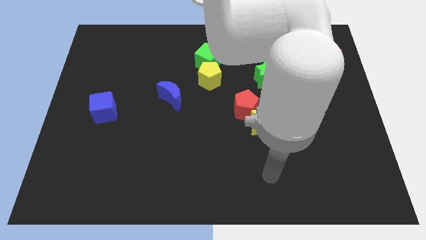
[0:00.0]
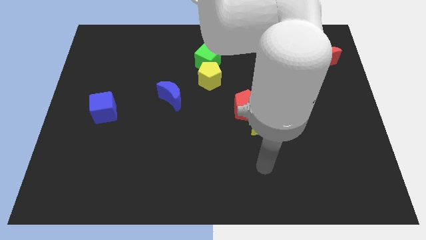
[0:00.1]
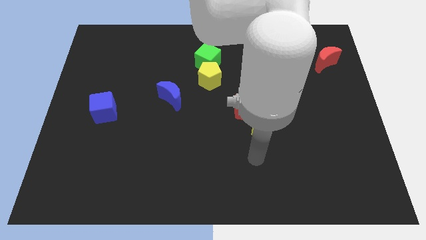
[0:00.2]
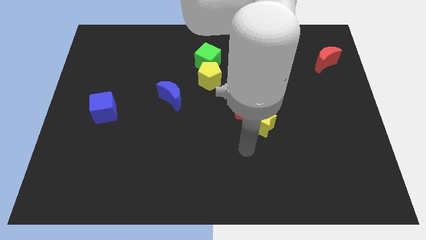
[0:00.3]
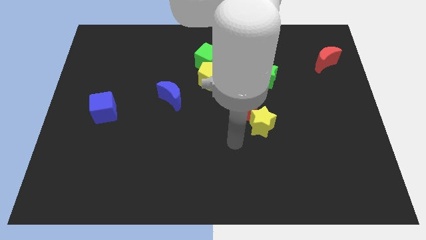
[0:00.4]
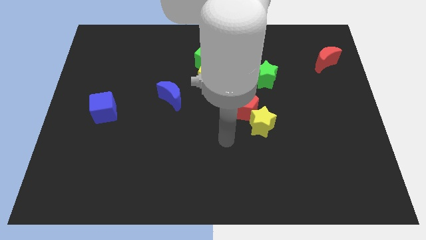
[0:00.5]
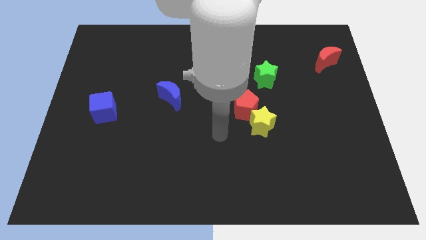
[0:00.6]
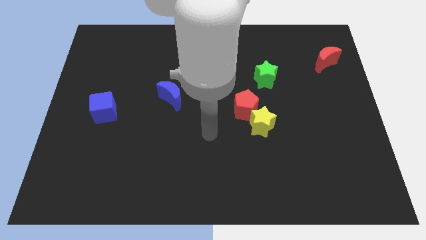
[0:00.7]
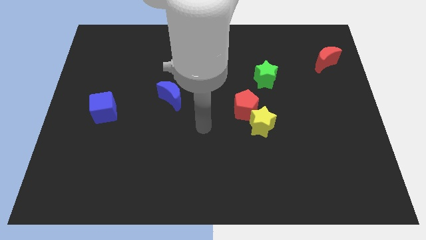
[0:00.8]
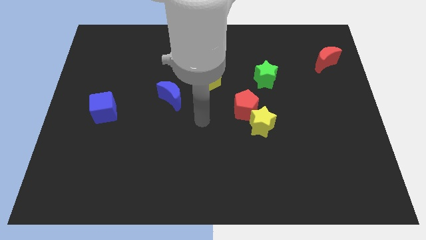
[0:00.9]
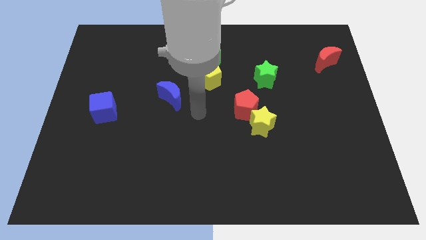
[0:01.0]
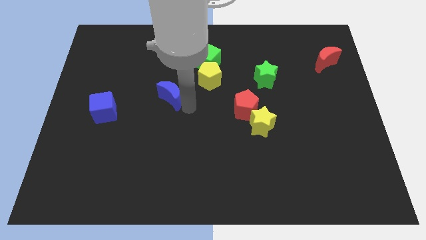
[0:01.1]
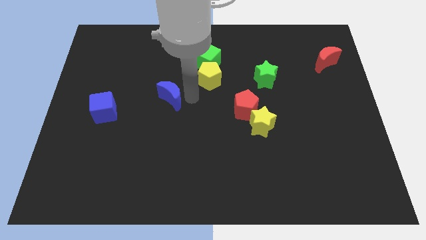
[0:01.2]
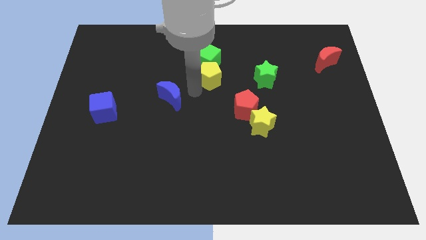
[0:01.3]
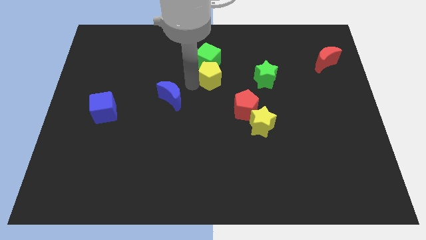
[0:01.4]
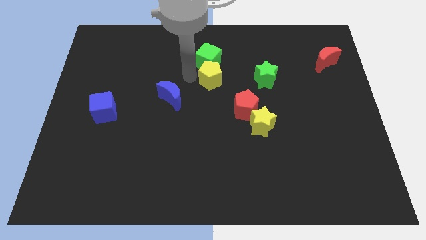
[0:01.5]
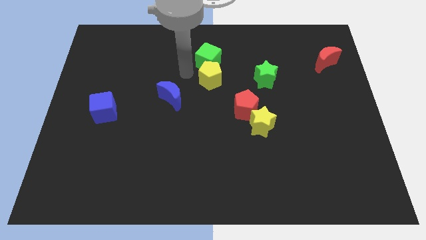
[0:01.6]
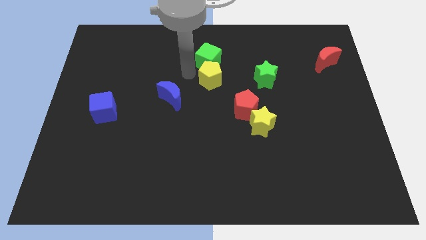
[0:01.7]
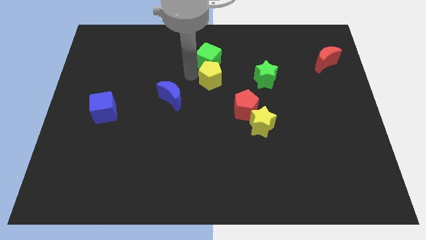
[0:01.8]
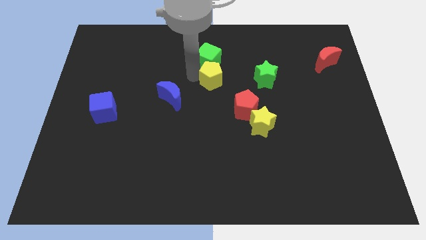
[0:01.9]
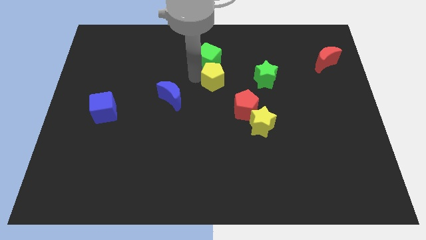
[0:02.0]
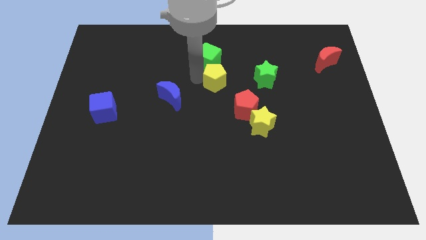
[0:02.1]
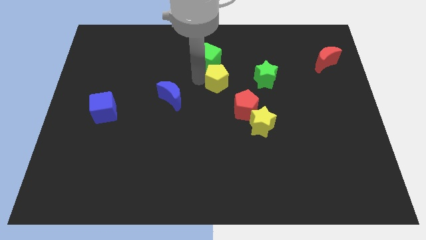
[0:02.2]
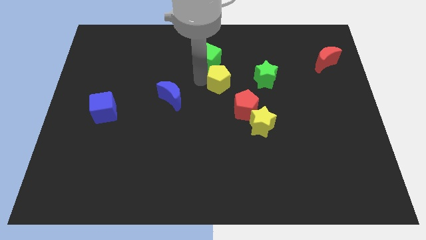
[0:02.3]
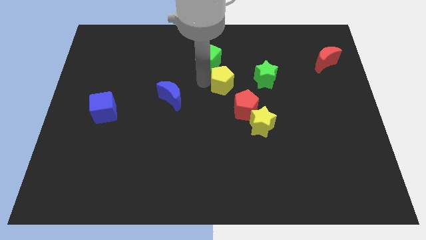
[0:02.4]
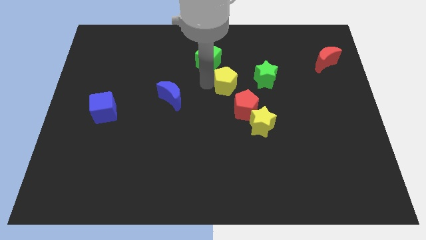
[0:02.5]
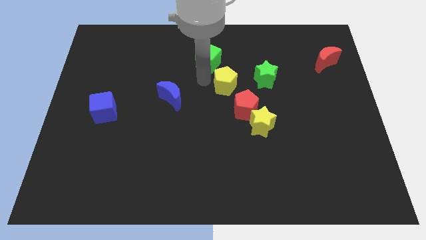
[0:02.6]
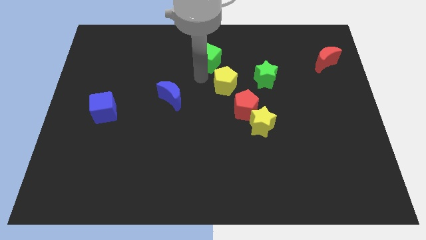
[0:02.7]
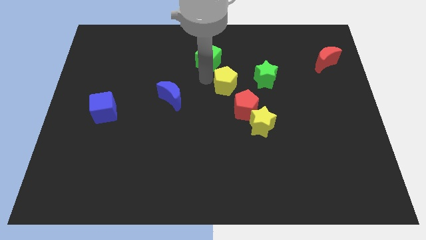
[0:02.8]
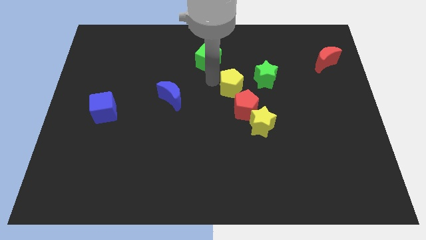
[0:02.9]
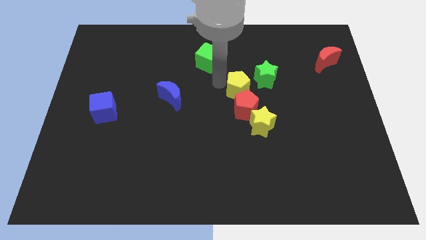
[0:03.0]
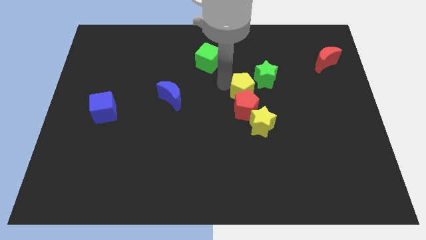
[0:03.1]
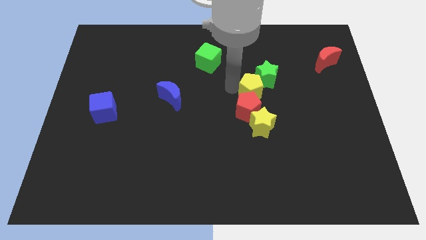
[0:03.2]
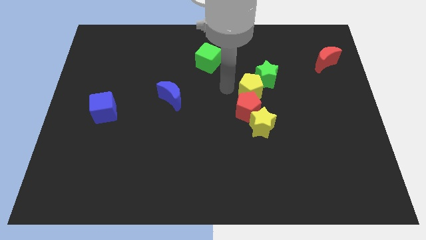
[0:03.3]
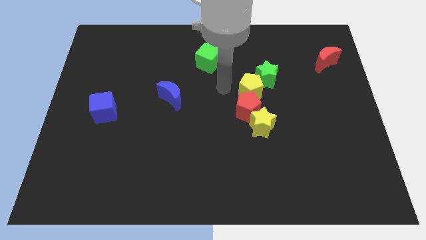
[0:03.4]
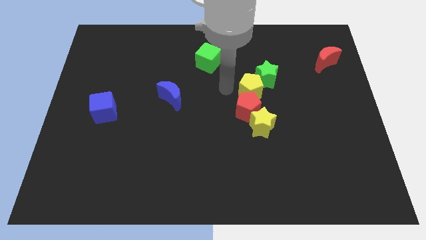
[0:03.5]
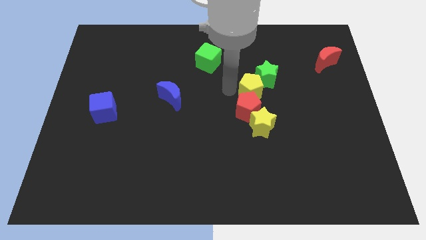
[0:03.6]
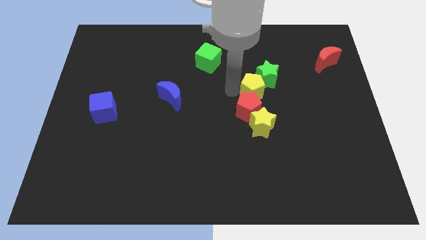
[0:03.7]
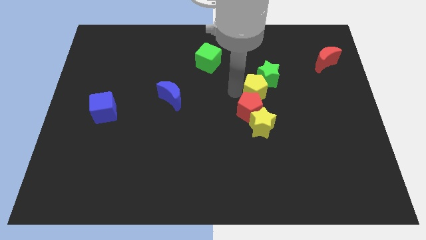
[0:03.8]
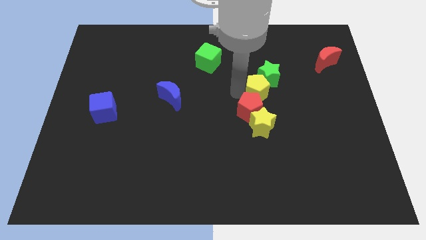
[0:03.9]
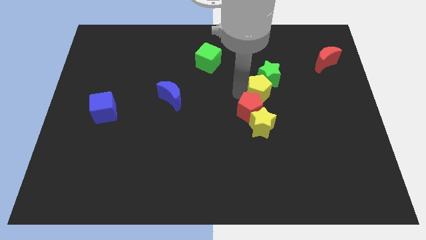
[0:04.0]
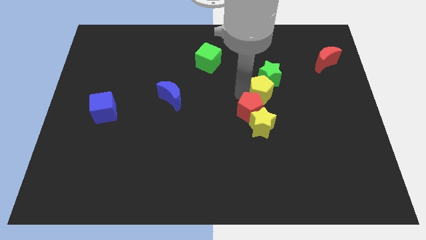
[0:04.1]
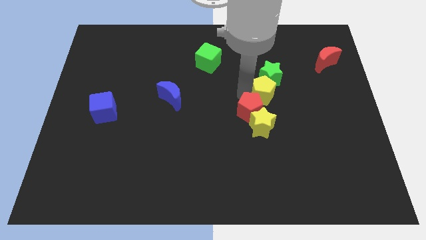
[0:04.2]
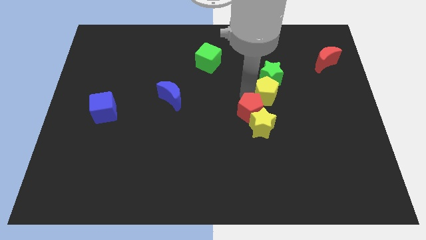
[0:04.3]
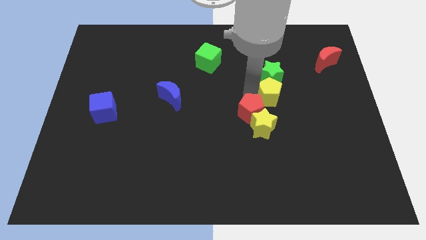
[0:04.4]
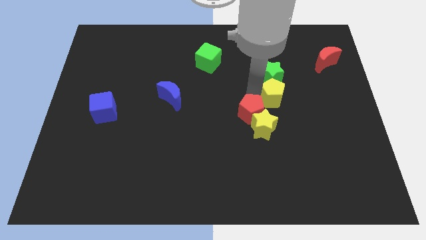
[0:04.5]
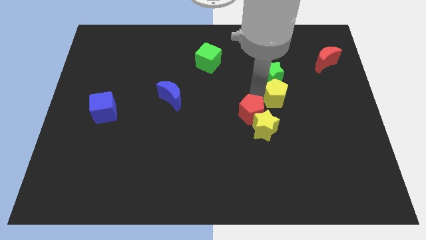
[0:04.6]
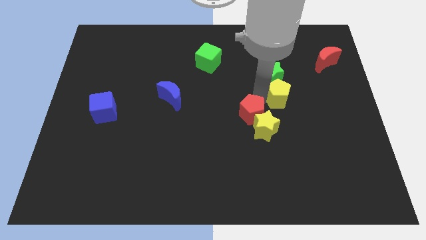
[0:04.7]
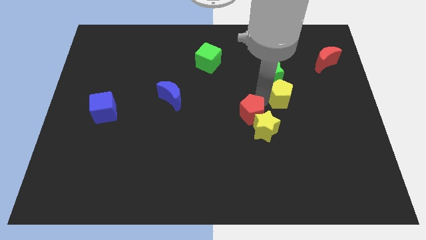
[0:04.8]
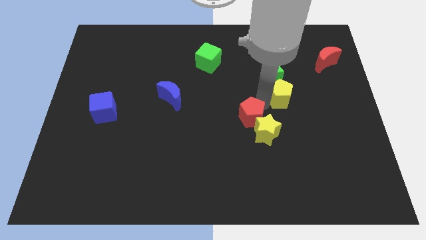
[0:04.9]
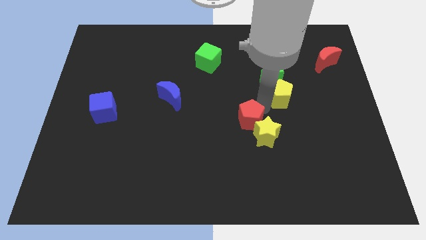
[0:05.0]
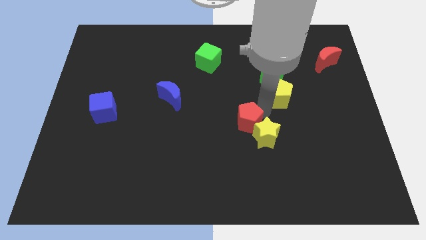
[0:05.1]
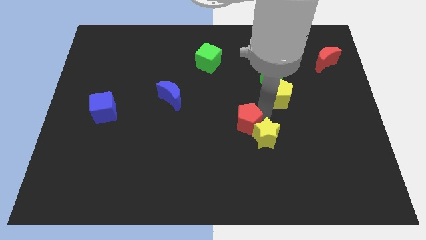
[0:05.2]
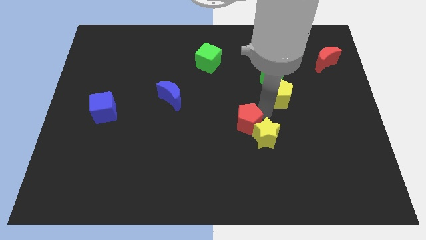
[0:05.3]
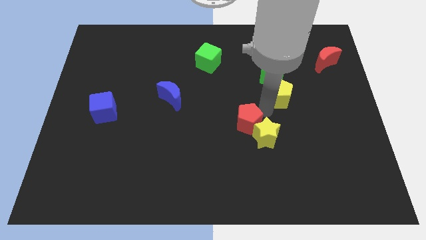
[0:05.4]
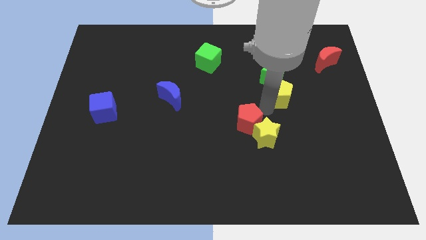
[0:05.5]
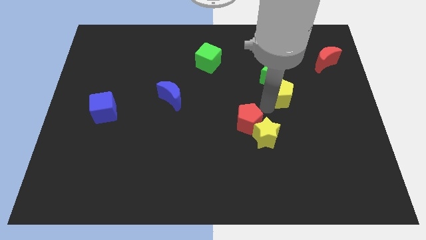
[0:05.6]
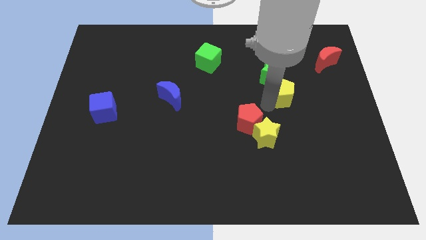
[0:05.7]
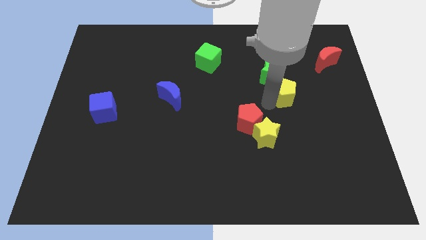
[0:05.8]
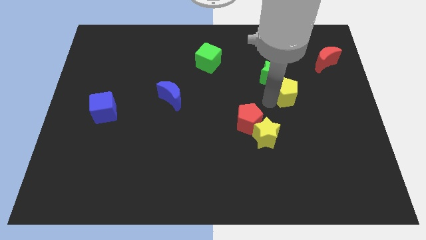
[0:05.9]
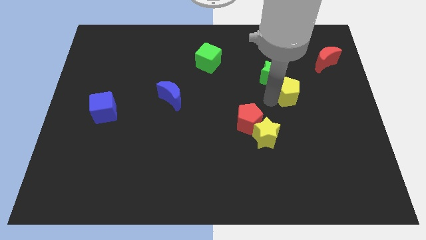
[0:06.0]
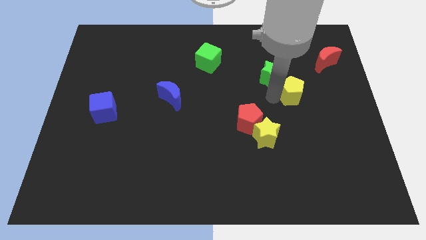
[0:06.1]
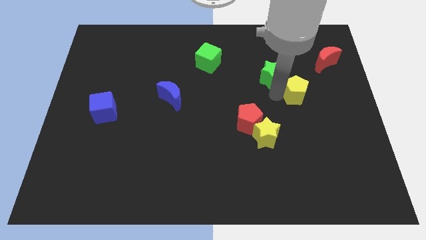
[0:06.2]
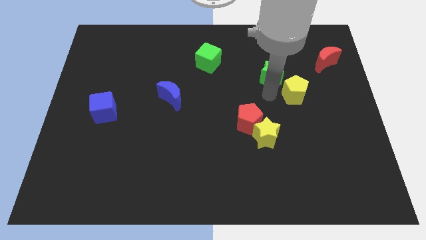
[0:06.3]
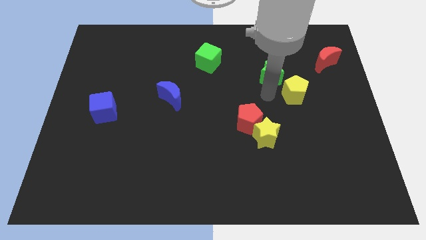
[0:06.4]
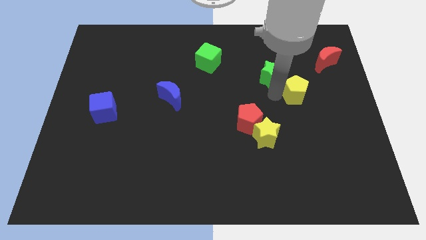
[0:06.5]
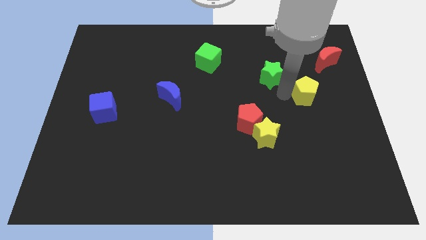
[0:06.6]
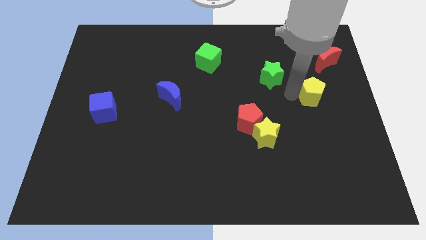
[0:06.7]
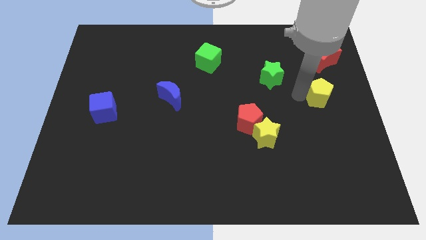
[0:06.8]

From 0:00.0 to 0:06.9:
push the yellow pentagon to the bottom of the red moon
